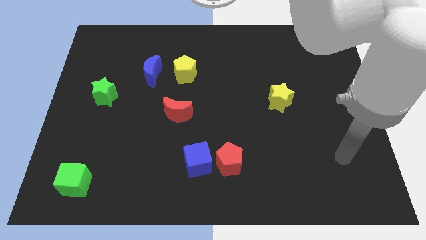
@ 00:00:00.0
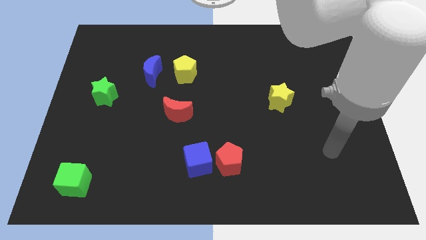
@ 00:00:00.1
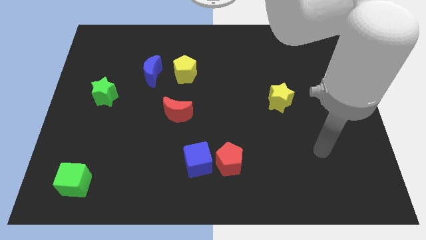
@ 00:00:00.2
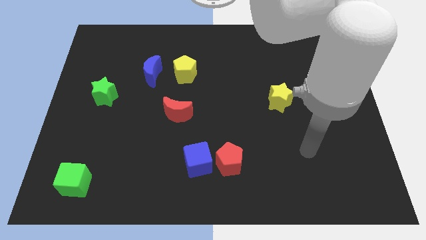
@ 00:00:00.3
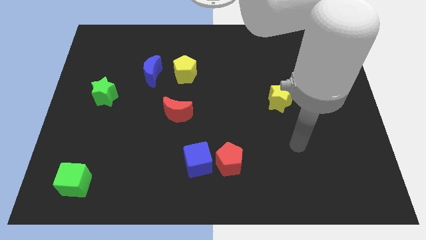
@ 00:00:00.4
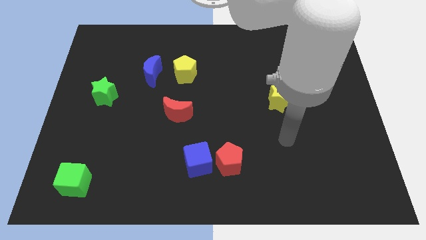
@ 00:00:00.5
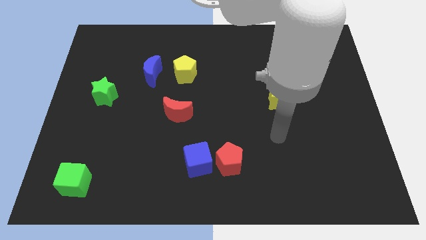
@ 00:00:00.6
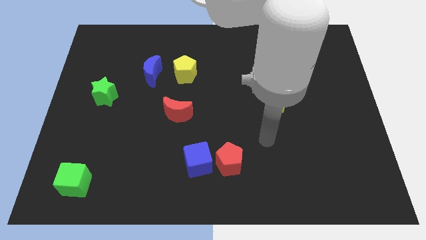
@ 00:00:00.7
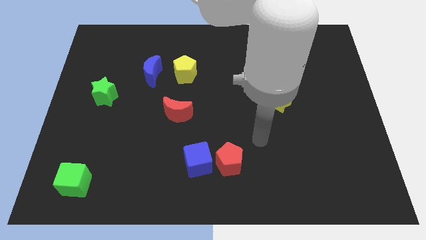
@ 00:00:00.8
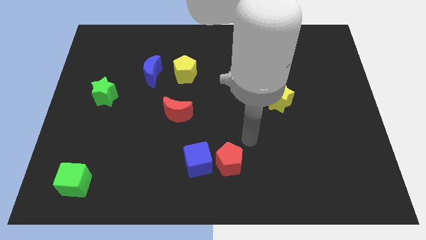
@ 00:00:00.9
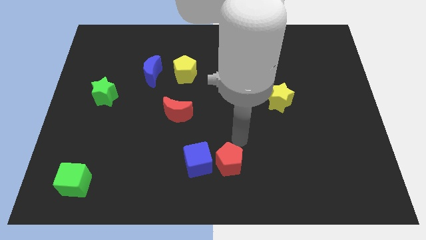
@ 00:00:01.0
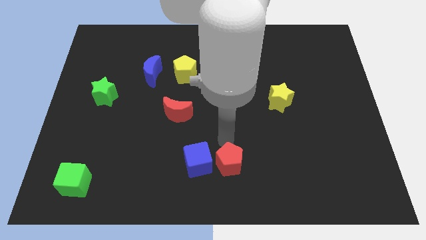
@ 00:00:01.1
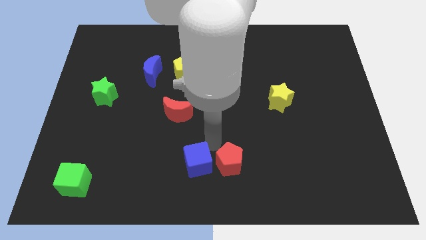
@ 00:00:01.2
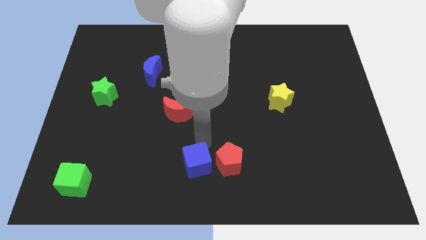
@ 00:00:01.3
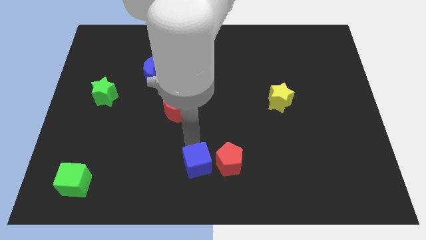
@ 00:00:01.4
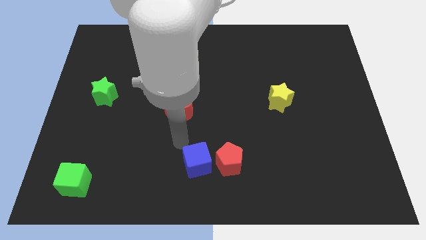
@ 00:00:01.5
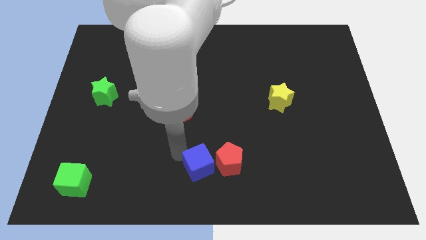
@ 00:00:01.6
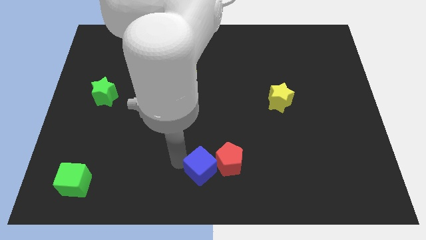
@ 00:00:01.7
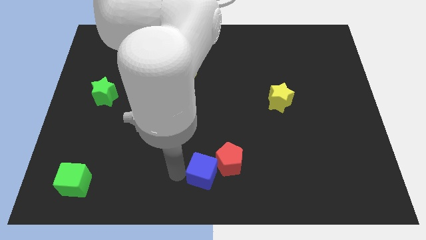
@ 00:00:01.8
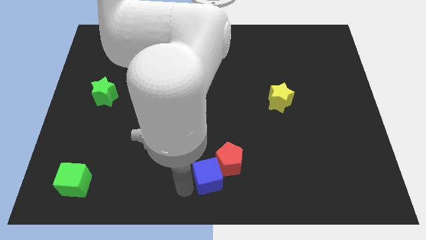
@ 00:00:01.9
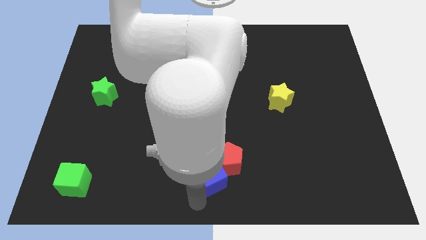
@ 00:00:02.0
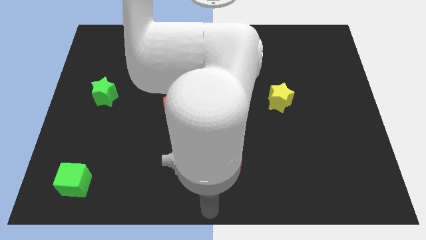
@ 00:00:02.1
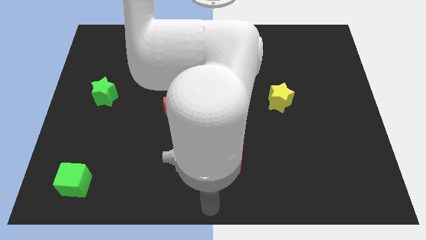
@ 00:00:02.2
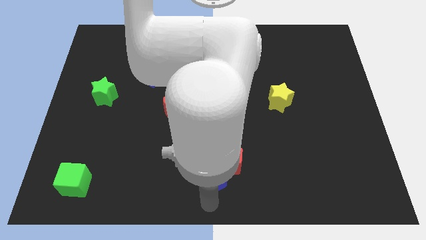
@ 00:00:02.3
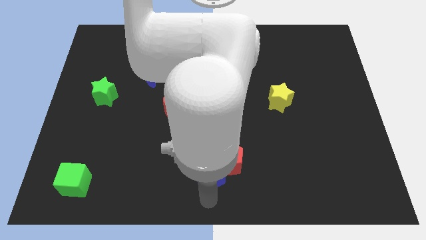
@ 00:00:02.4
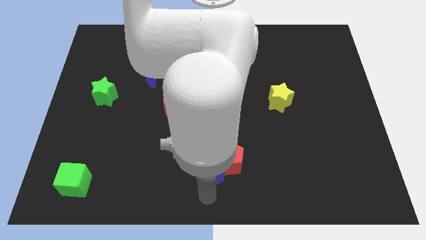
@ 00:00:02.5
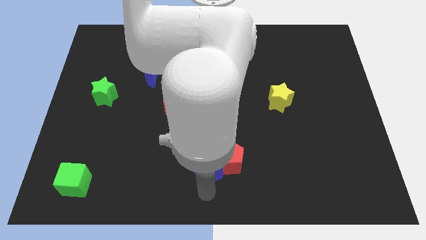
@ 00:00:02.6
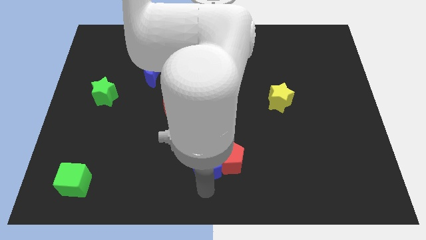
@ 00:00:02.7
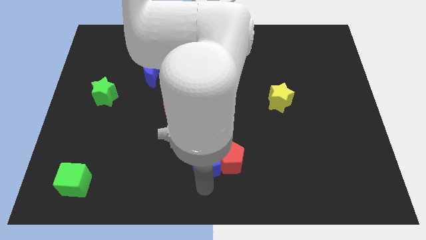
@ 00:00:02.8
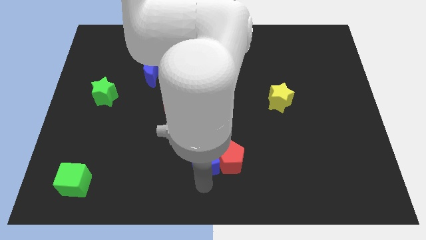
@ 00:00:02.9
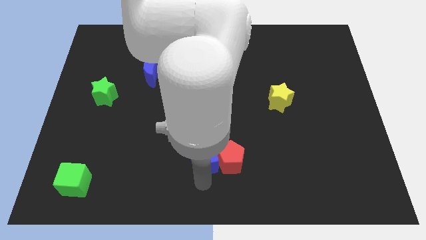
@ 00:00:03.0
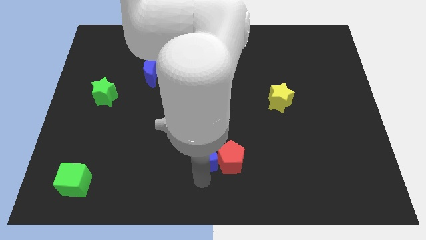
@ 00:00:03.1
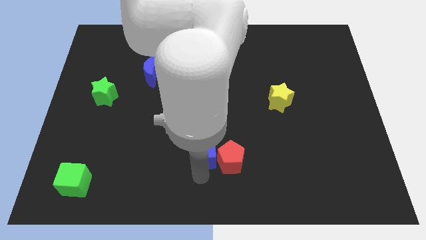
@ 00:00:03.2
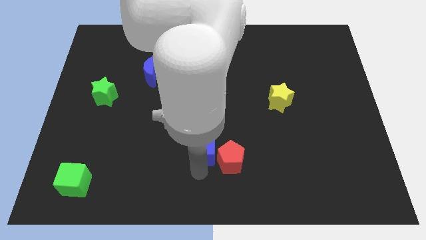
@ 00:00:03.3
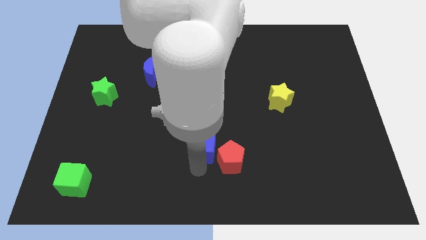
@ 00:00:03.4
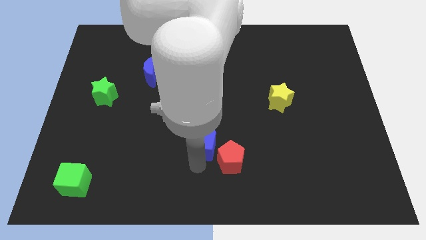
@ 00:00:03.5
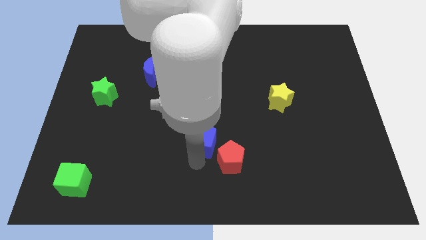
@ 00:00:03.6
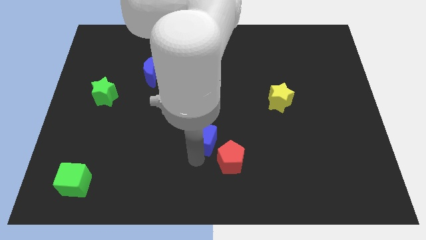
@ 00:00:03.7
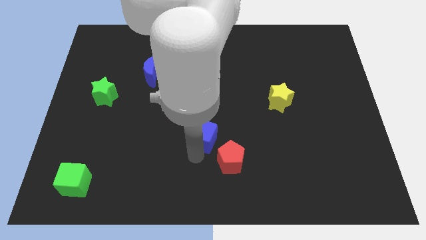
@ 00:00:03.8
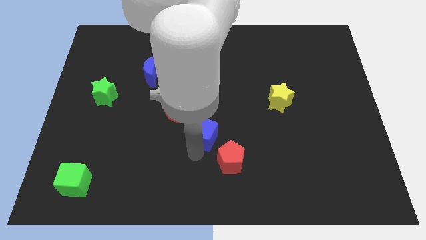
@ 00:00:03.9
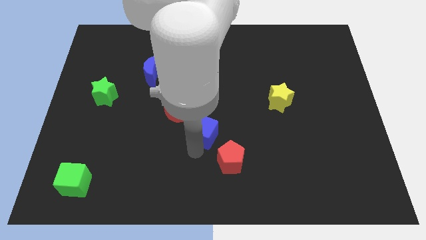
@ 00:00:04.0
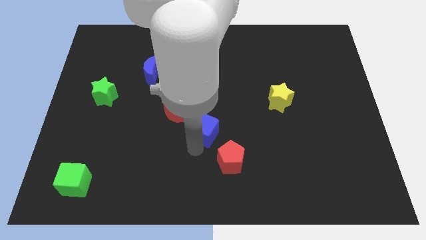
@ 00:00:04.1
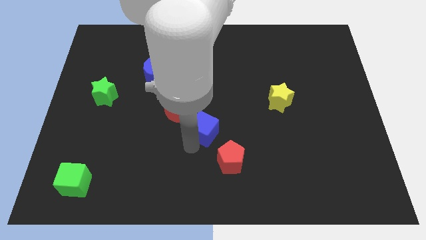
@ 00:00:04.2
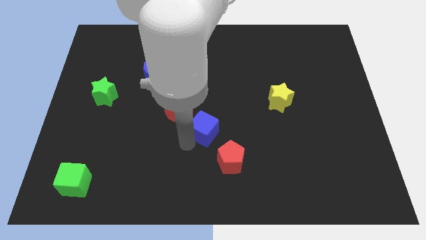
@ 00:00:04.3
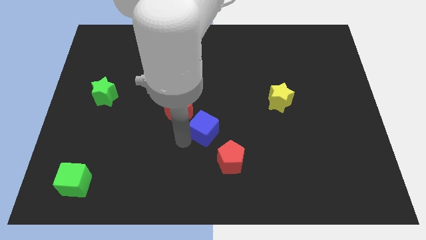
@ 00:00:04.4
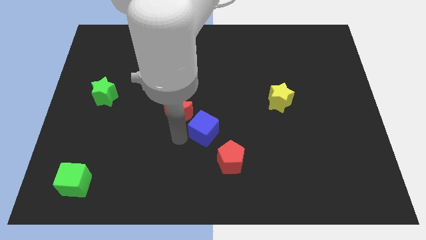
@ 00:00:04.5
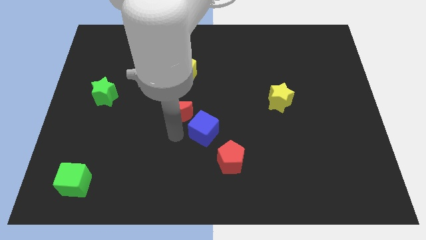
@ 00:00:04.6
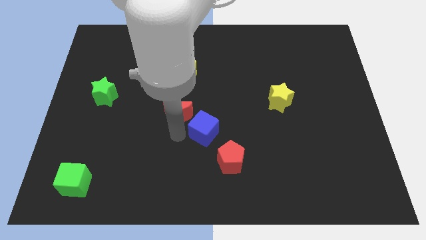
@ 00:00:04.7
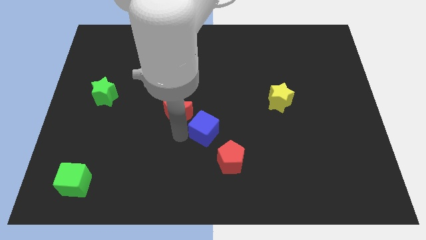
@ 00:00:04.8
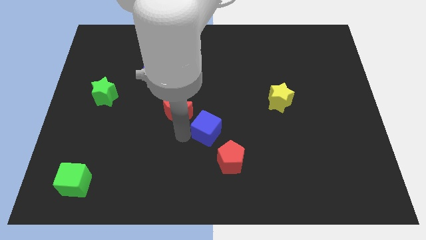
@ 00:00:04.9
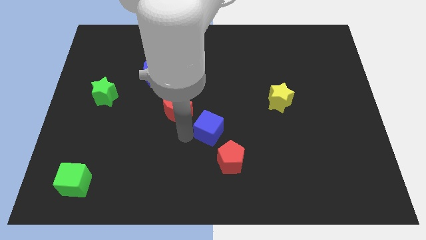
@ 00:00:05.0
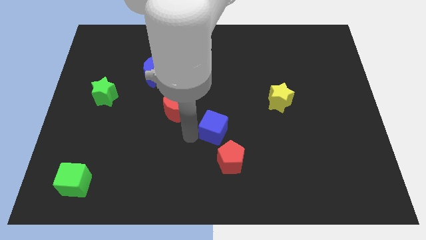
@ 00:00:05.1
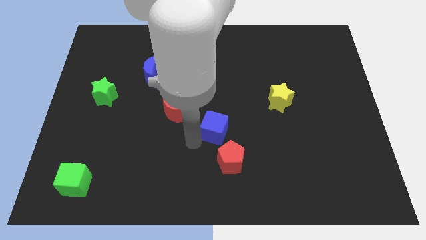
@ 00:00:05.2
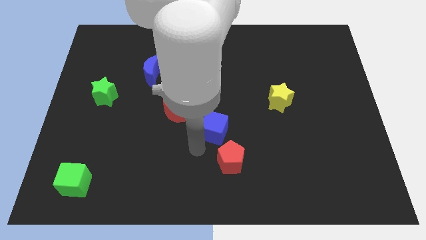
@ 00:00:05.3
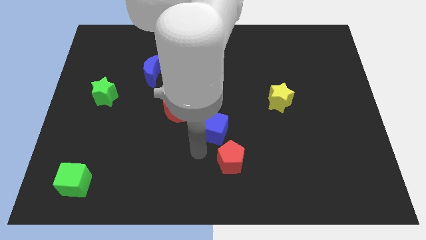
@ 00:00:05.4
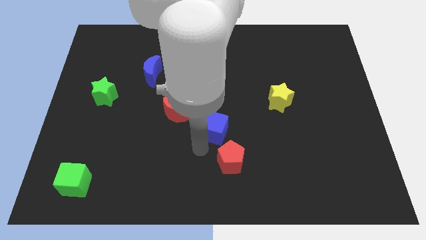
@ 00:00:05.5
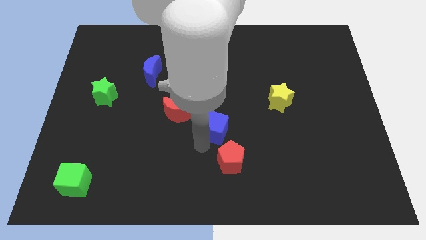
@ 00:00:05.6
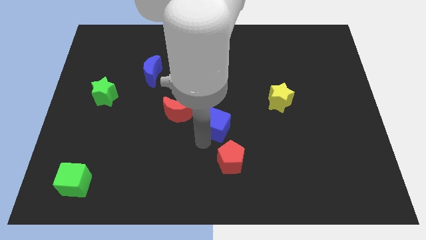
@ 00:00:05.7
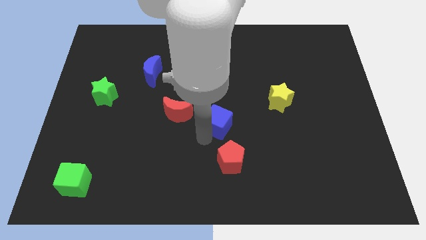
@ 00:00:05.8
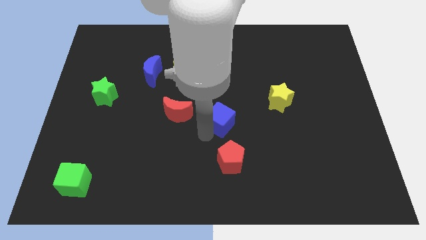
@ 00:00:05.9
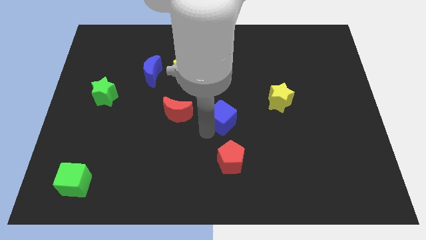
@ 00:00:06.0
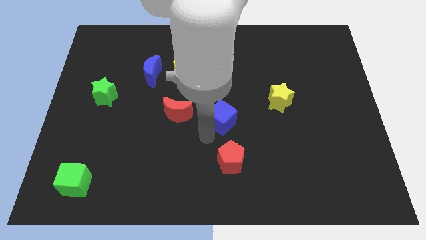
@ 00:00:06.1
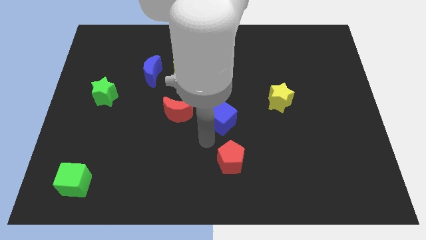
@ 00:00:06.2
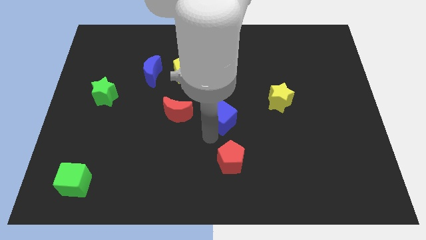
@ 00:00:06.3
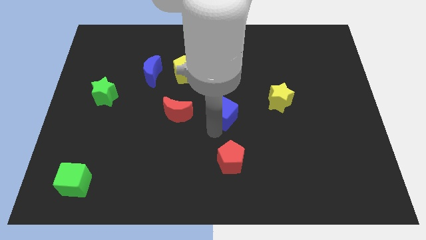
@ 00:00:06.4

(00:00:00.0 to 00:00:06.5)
move the blue cube just left of the yellow star
